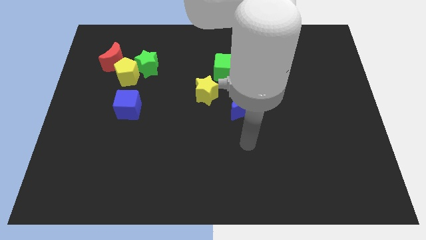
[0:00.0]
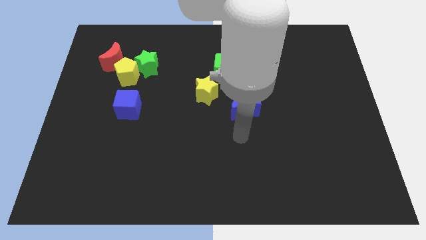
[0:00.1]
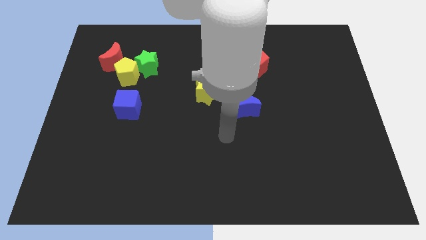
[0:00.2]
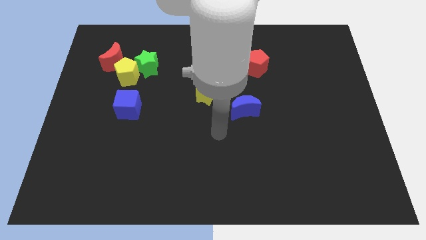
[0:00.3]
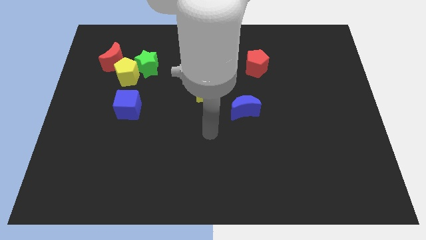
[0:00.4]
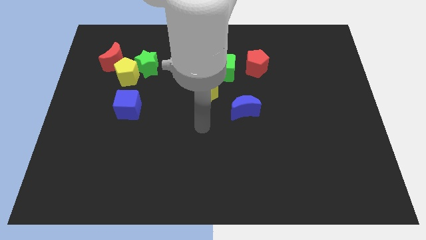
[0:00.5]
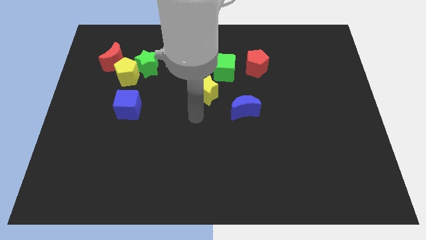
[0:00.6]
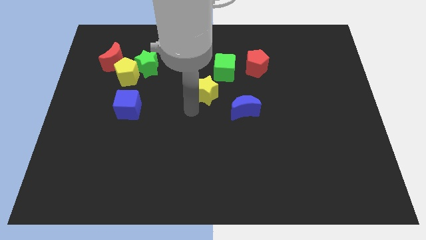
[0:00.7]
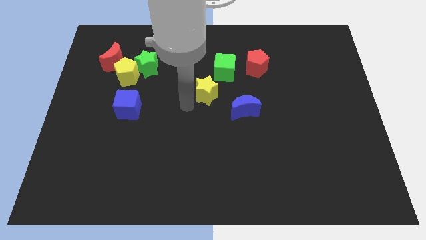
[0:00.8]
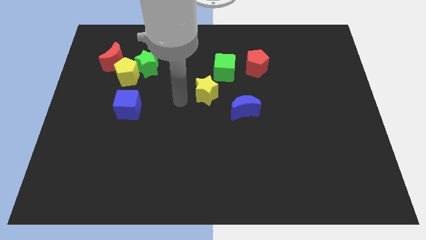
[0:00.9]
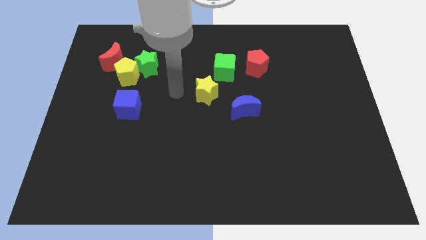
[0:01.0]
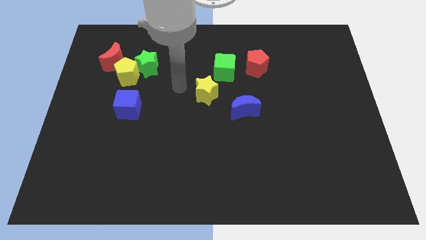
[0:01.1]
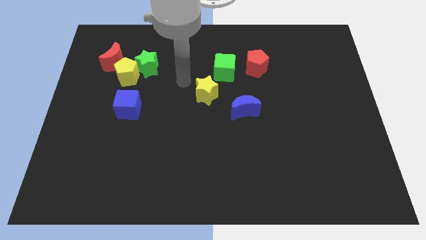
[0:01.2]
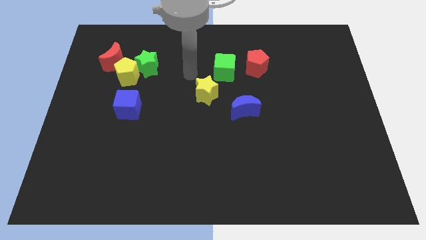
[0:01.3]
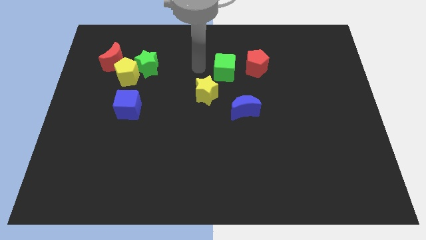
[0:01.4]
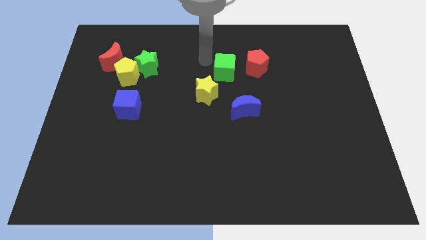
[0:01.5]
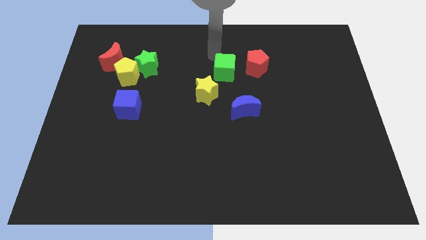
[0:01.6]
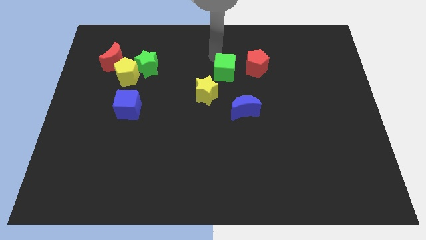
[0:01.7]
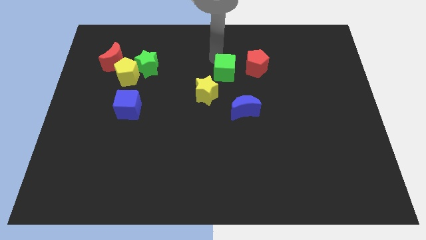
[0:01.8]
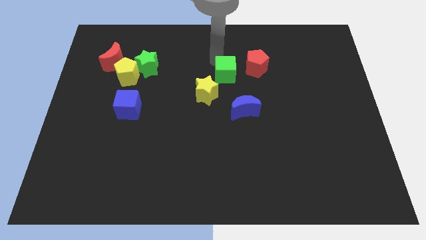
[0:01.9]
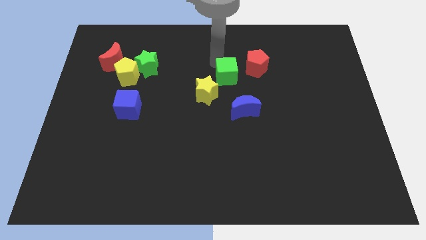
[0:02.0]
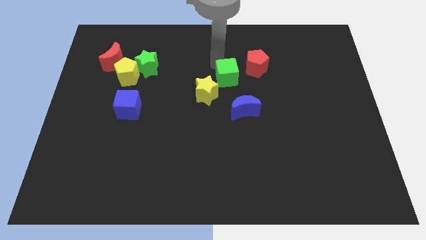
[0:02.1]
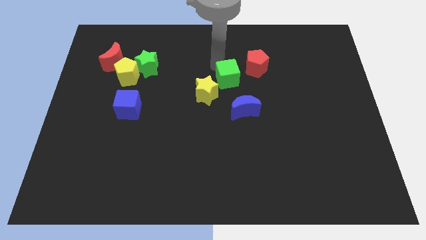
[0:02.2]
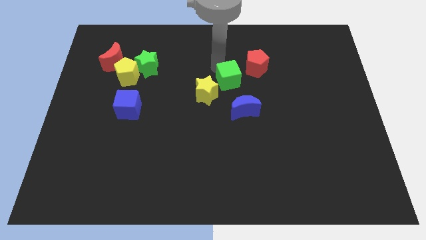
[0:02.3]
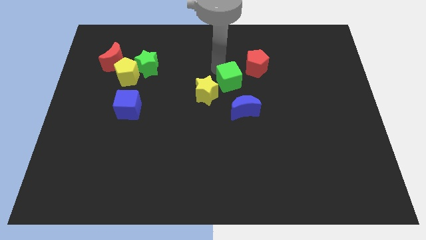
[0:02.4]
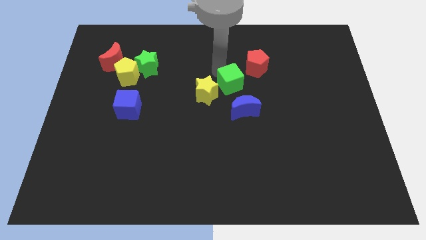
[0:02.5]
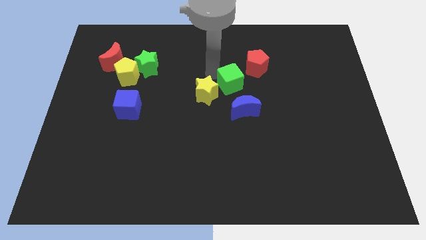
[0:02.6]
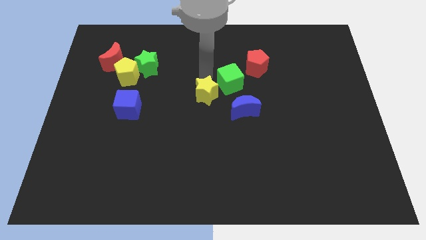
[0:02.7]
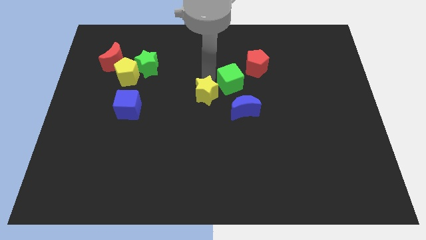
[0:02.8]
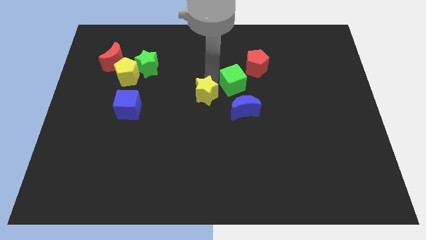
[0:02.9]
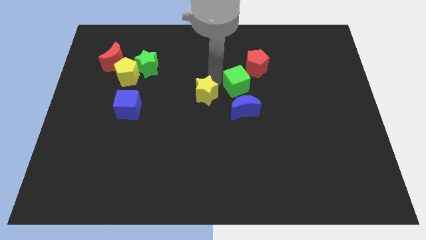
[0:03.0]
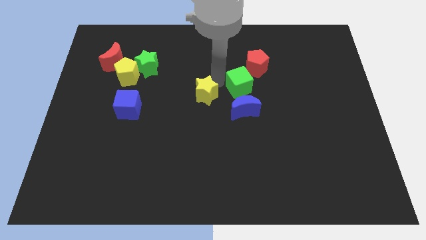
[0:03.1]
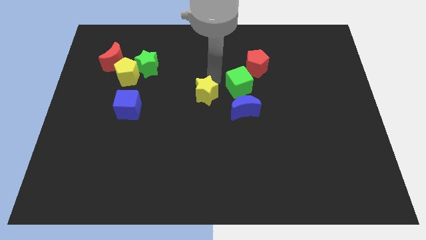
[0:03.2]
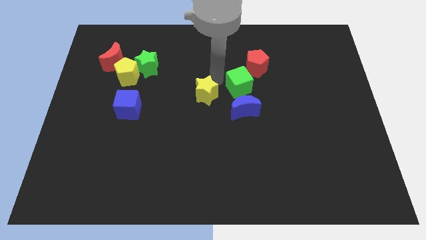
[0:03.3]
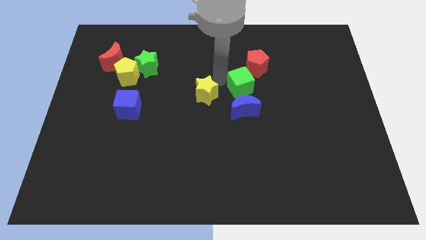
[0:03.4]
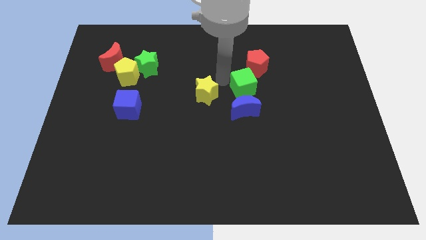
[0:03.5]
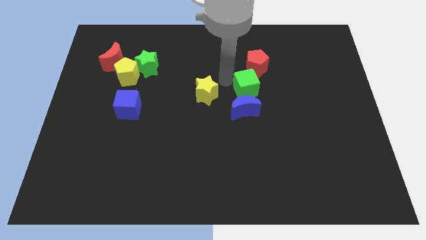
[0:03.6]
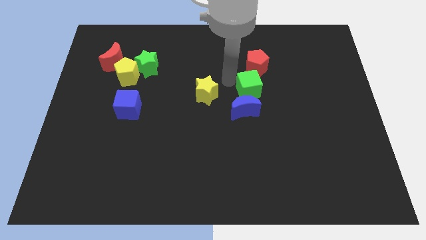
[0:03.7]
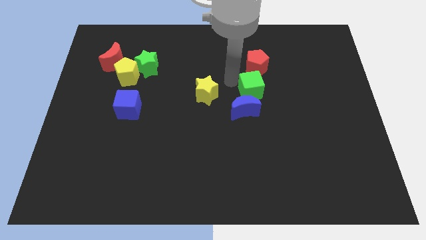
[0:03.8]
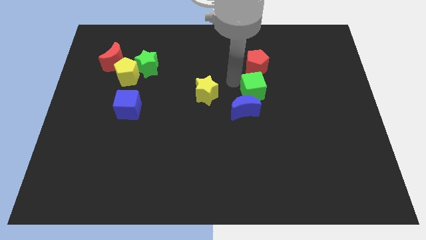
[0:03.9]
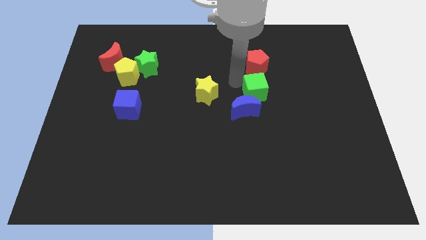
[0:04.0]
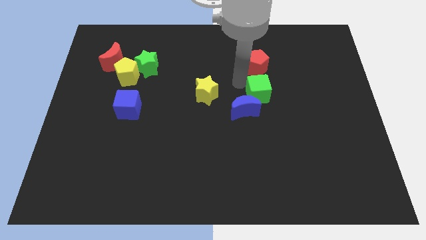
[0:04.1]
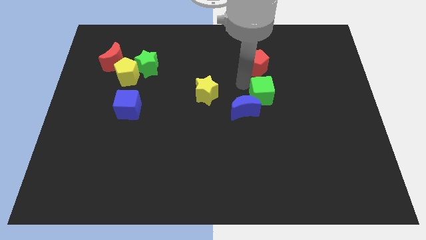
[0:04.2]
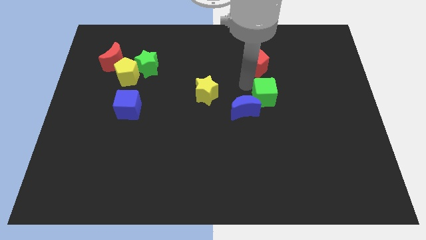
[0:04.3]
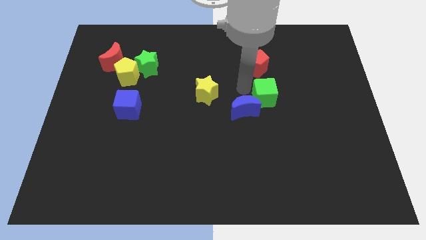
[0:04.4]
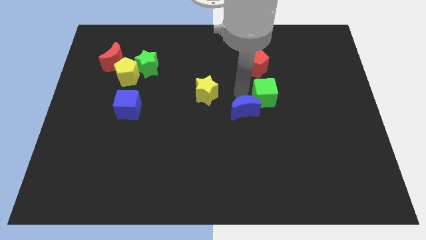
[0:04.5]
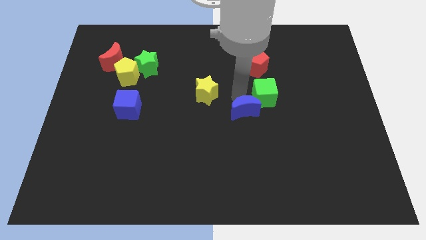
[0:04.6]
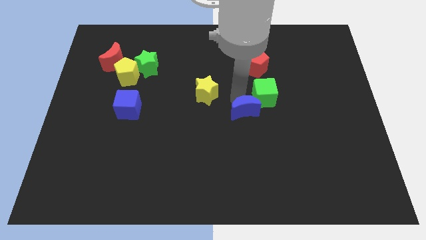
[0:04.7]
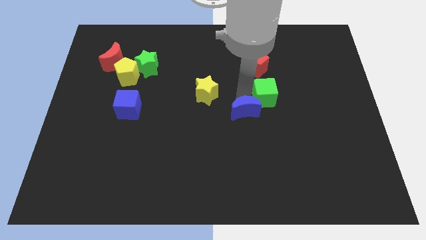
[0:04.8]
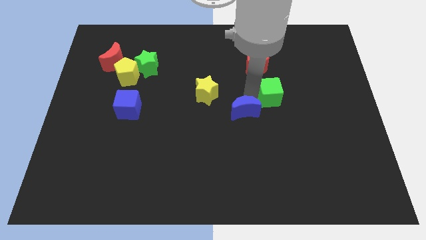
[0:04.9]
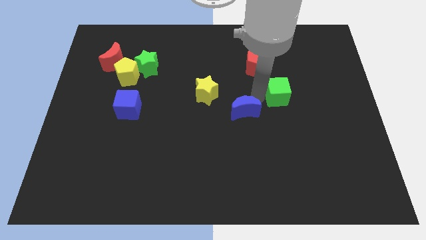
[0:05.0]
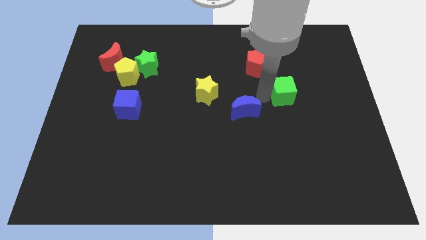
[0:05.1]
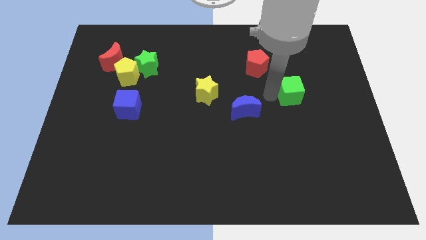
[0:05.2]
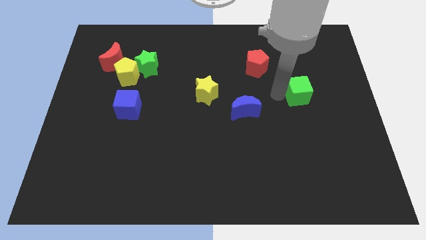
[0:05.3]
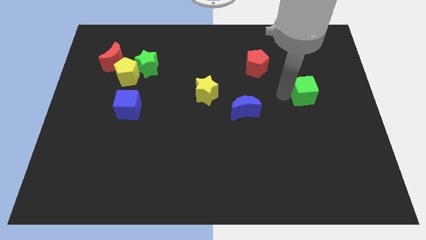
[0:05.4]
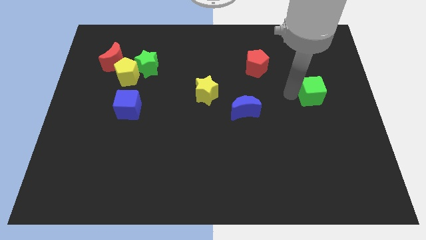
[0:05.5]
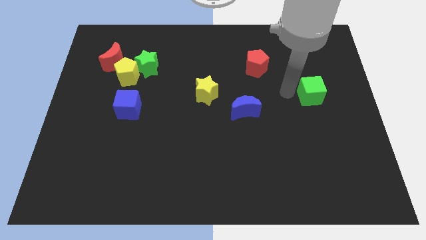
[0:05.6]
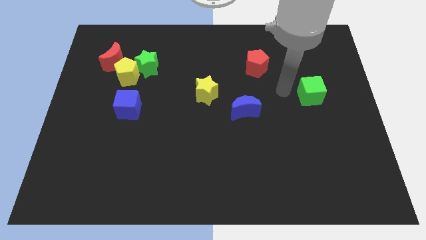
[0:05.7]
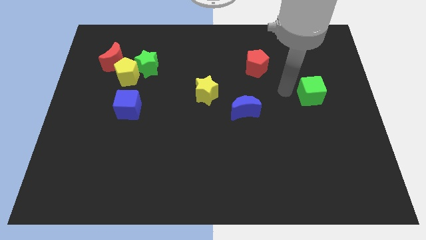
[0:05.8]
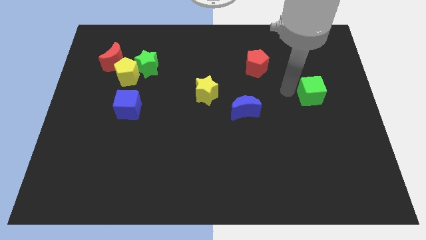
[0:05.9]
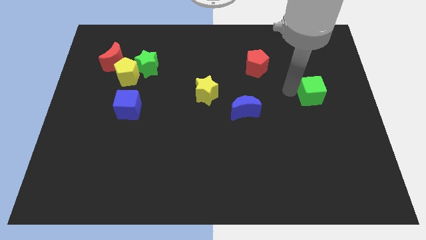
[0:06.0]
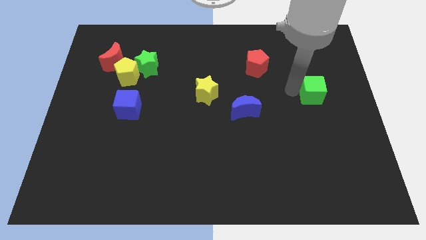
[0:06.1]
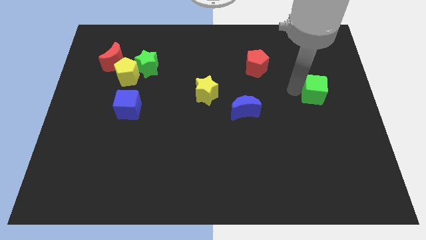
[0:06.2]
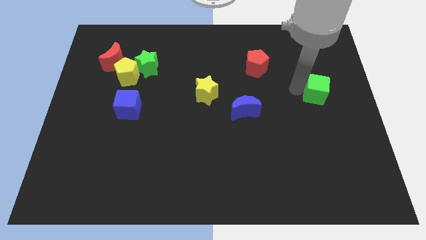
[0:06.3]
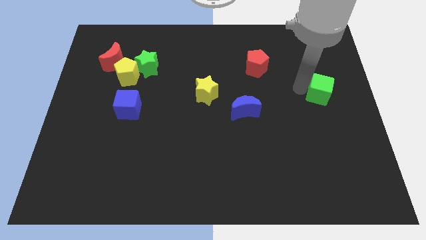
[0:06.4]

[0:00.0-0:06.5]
slide the green cube to the right side

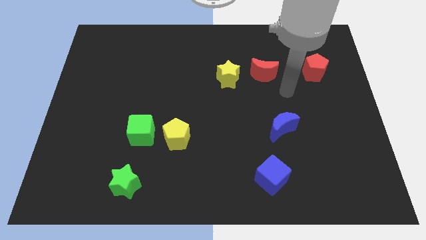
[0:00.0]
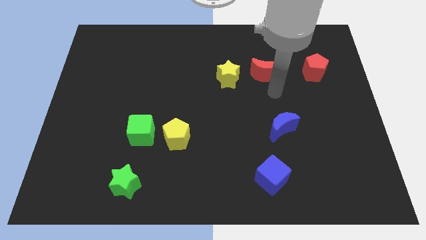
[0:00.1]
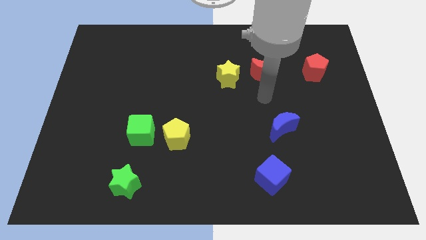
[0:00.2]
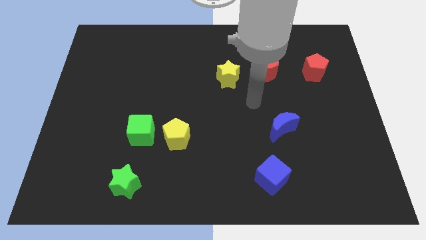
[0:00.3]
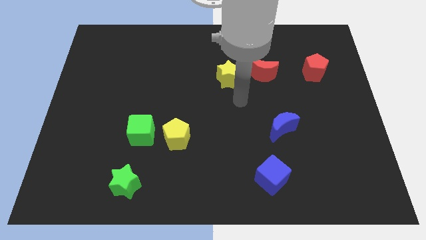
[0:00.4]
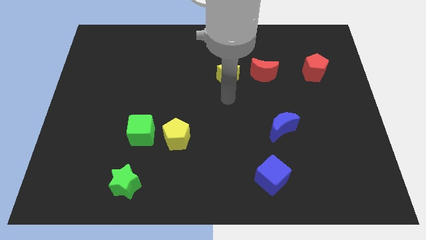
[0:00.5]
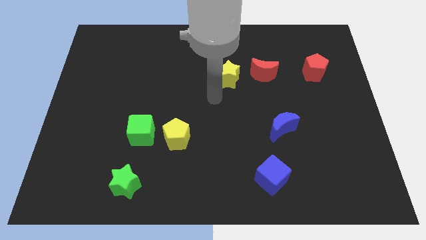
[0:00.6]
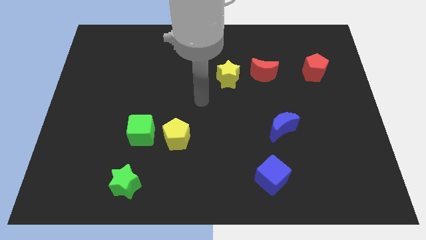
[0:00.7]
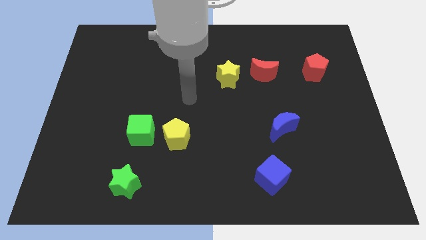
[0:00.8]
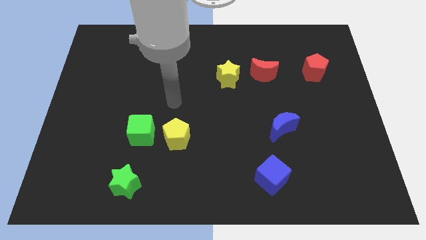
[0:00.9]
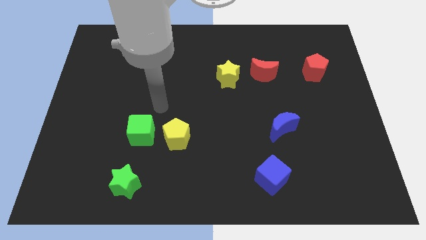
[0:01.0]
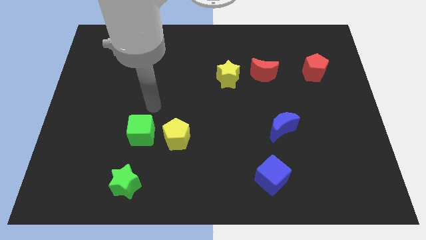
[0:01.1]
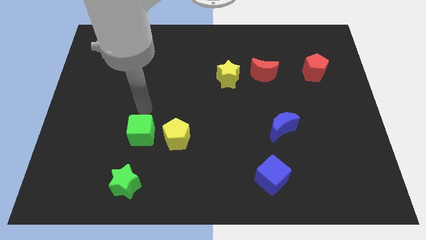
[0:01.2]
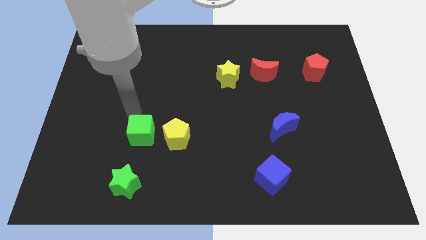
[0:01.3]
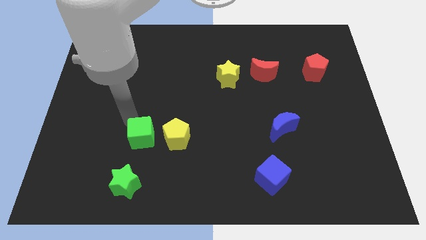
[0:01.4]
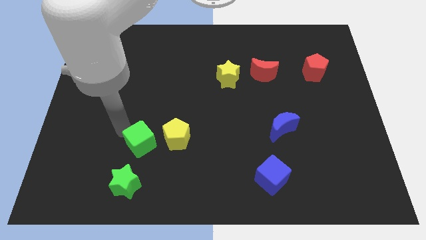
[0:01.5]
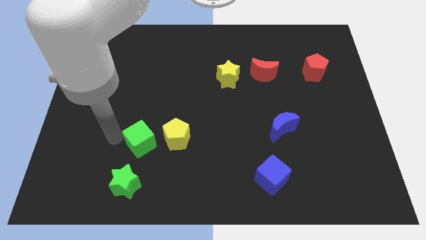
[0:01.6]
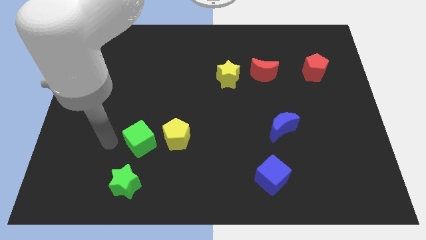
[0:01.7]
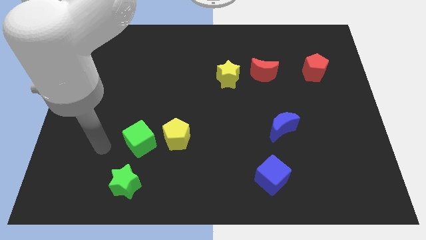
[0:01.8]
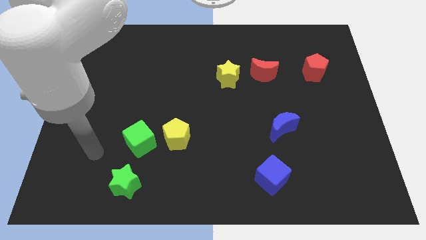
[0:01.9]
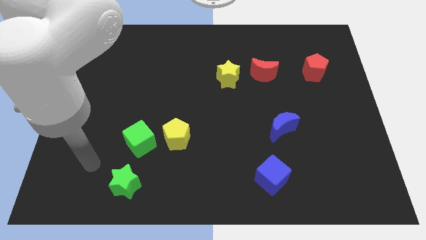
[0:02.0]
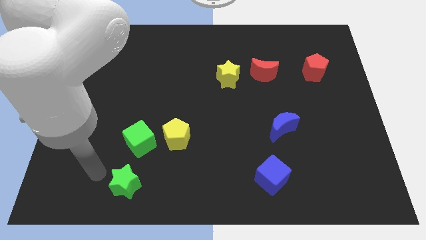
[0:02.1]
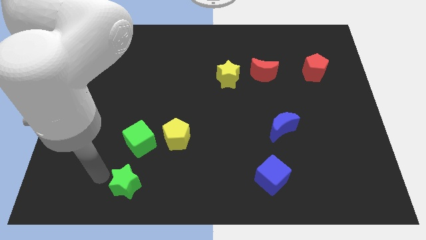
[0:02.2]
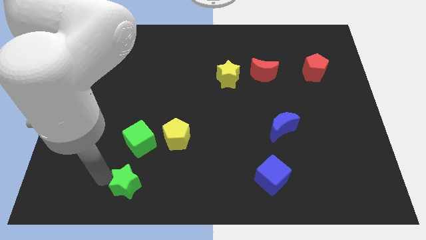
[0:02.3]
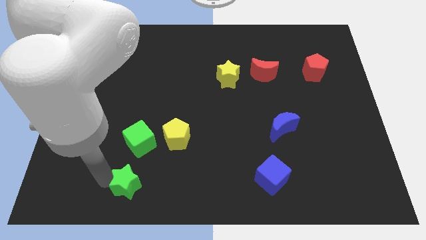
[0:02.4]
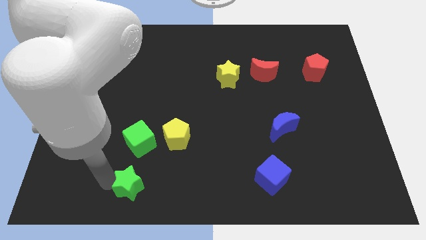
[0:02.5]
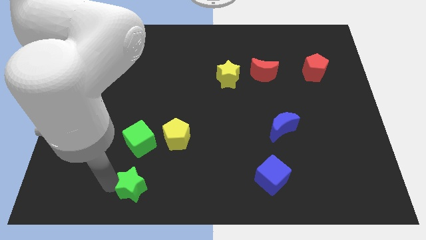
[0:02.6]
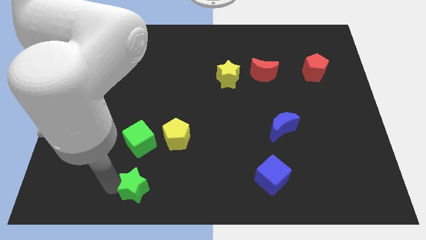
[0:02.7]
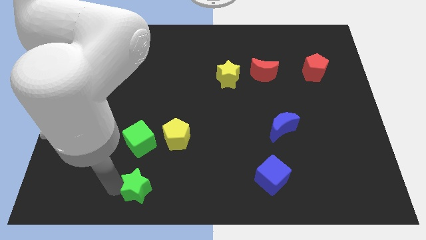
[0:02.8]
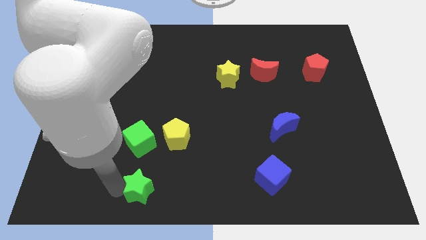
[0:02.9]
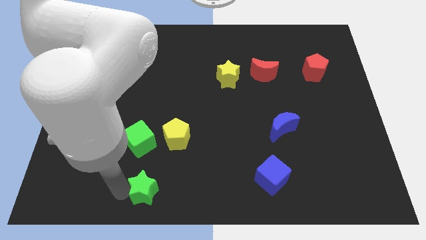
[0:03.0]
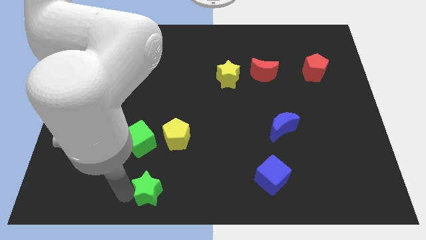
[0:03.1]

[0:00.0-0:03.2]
move the green star to the bottom side
